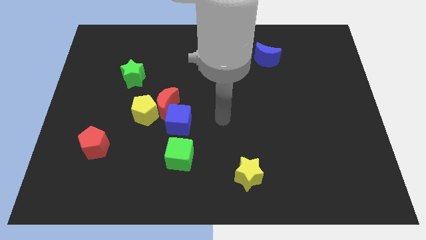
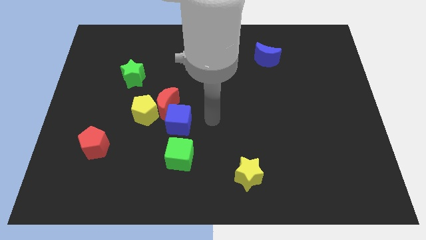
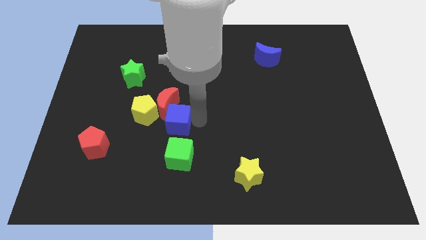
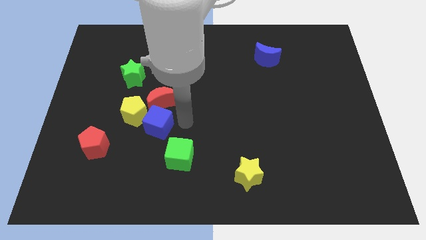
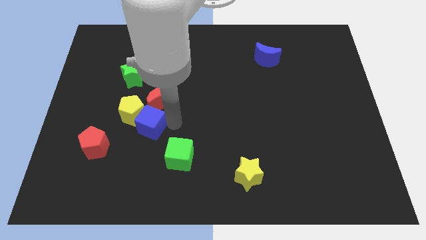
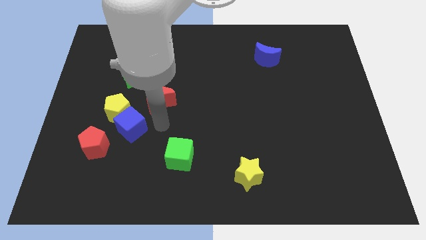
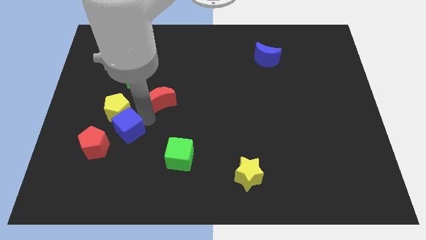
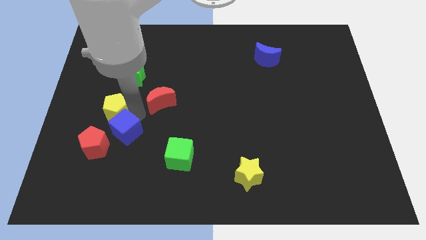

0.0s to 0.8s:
move the red moon away from the yellow pentagon and blue cube

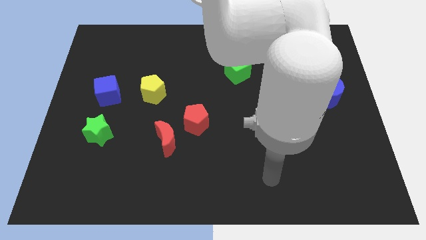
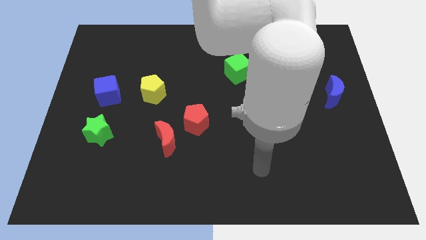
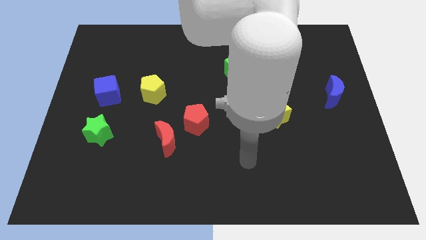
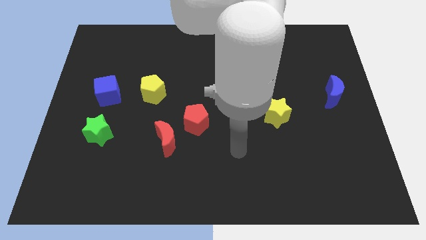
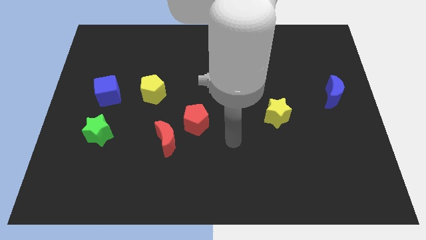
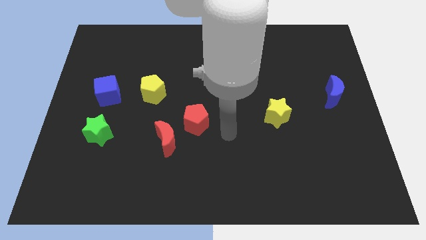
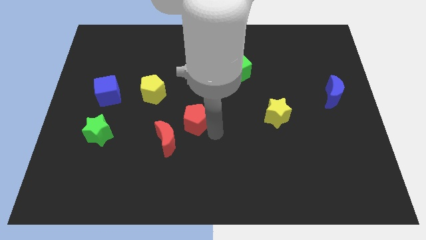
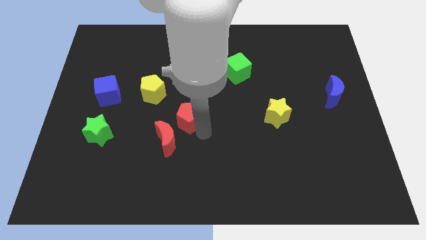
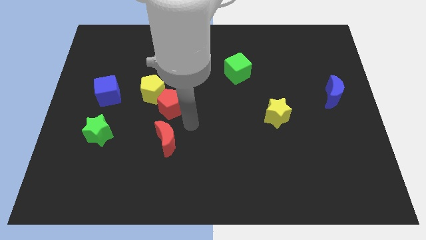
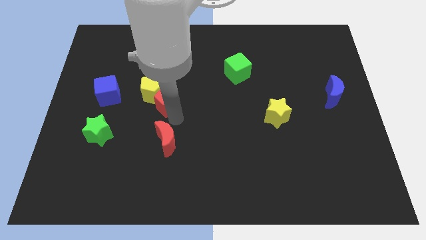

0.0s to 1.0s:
move the red moon away from the red pentagon

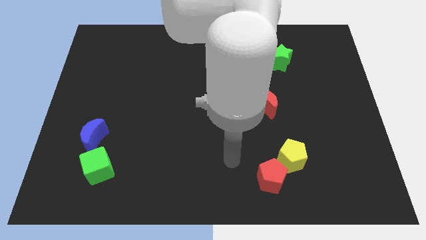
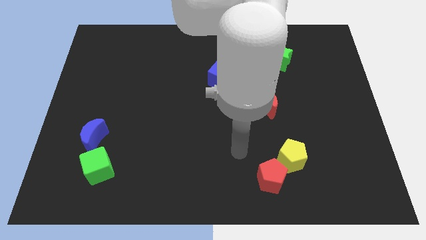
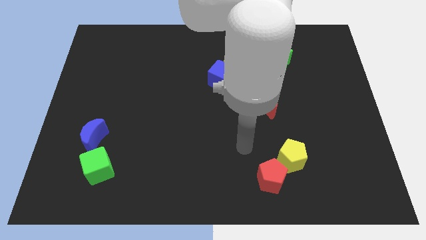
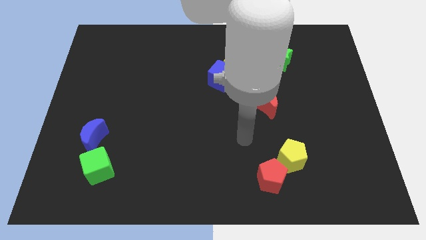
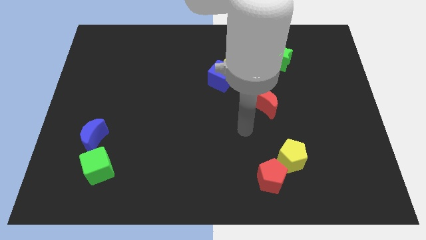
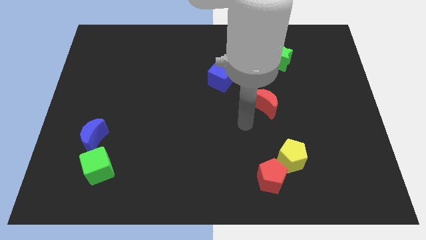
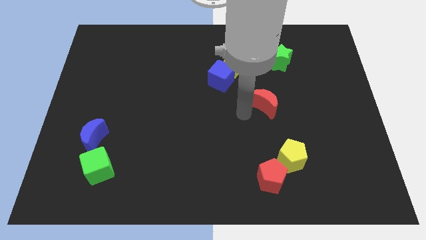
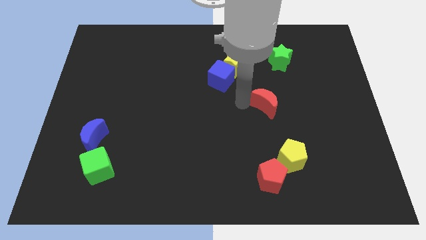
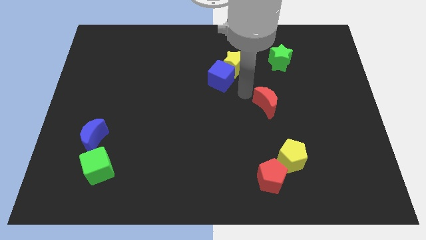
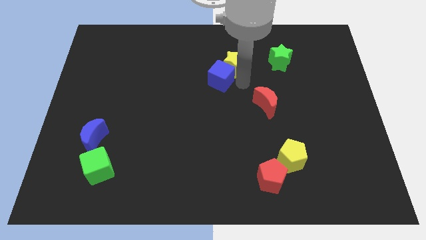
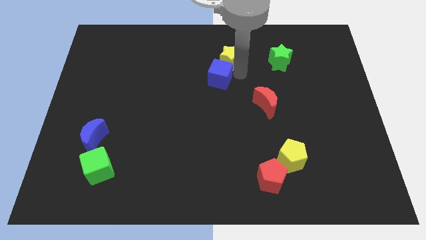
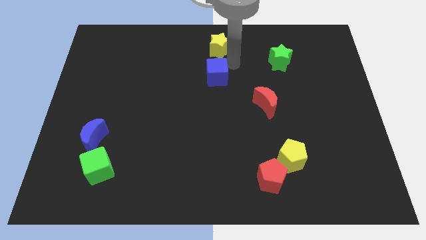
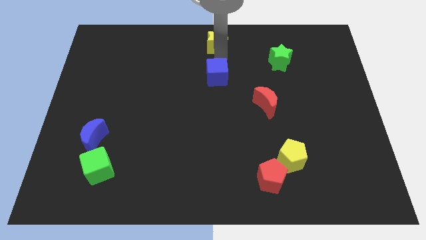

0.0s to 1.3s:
move the blue cube away from the yellow star

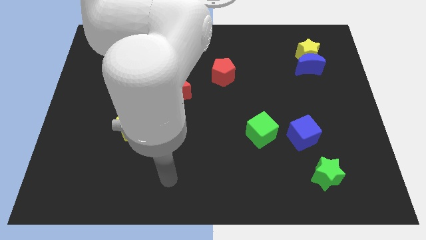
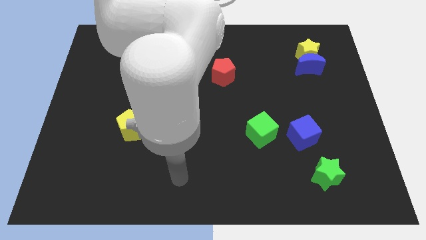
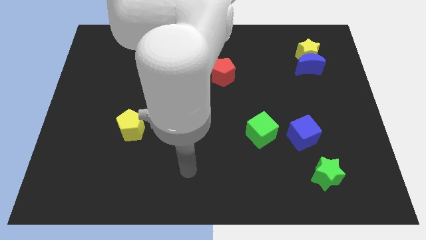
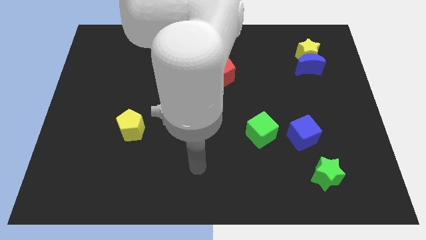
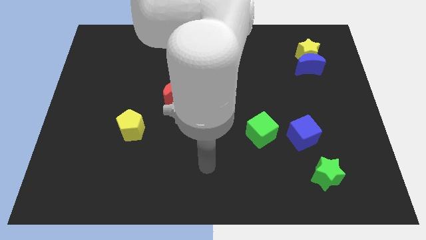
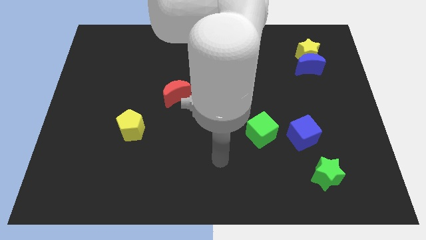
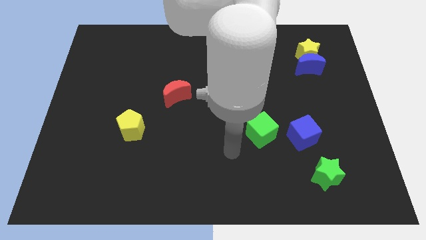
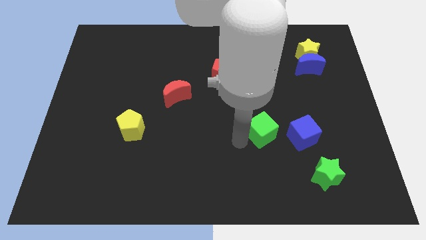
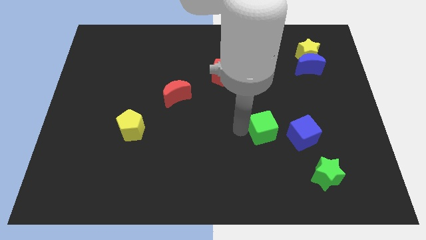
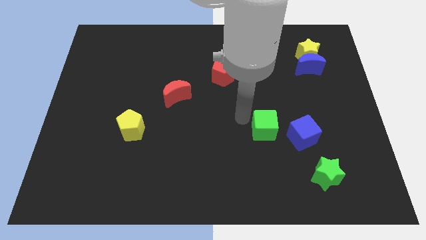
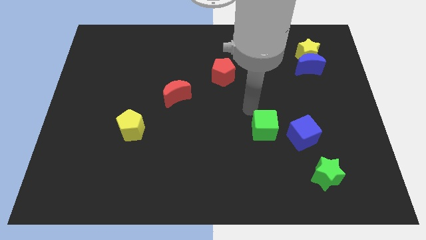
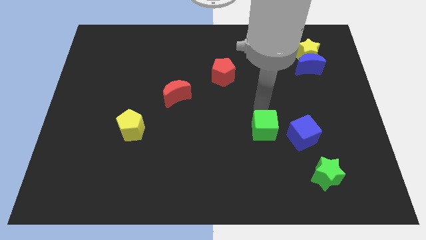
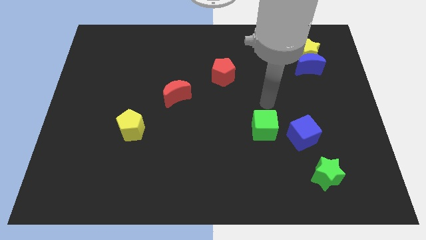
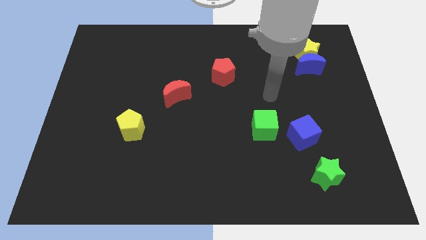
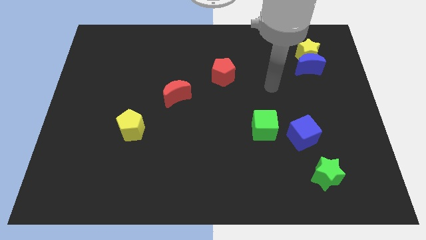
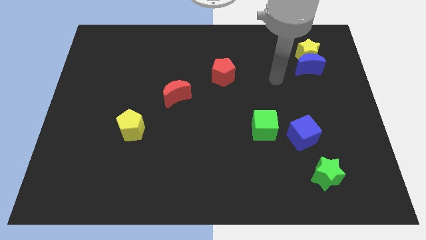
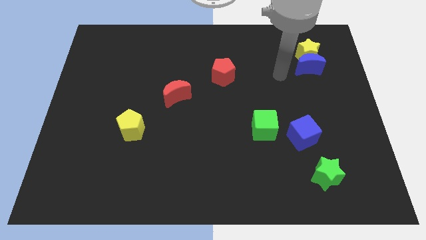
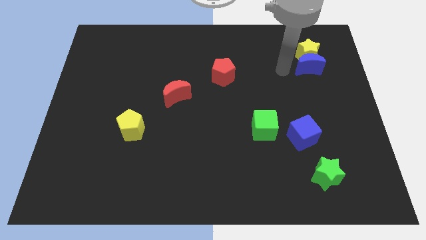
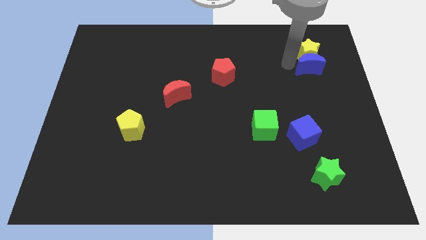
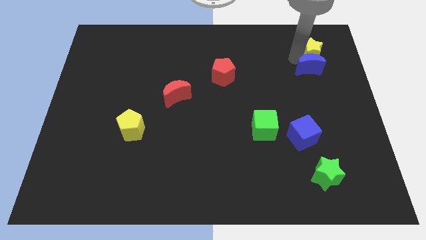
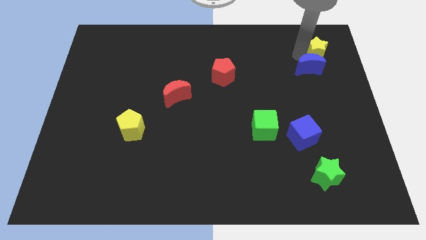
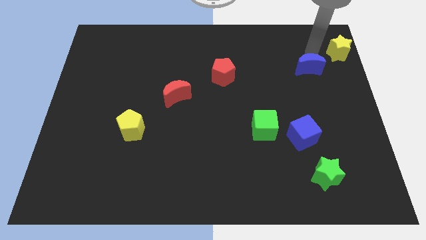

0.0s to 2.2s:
move the blue moon away from the yellow star

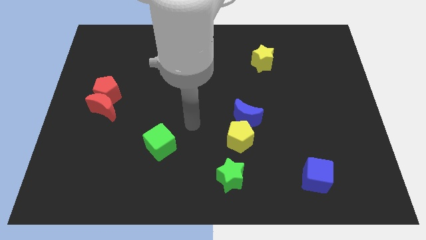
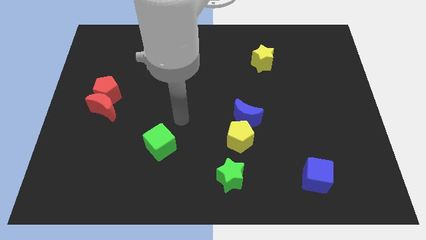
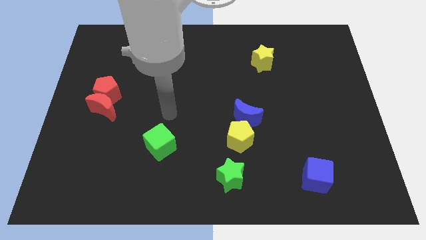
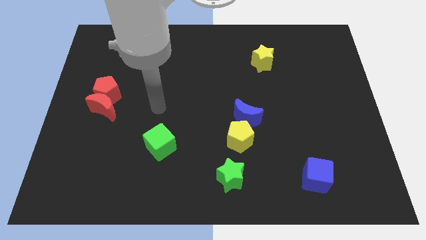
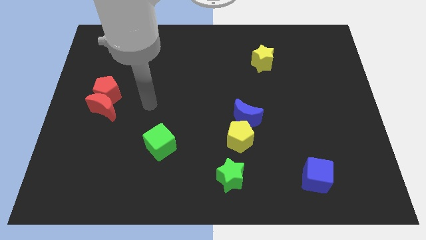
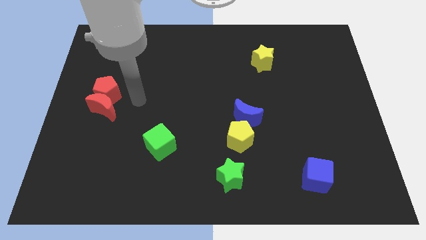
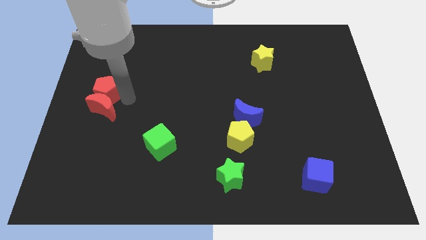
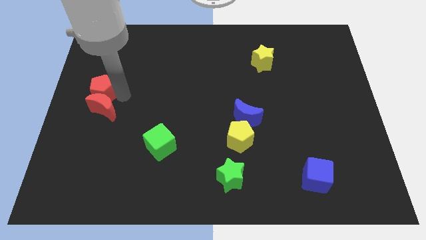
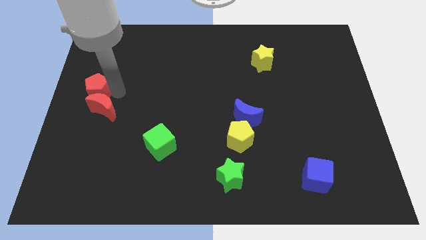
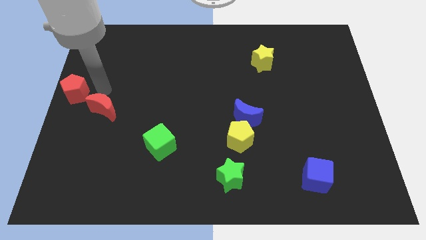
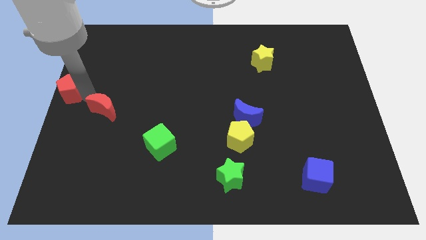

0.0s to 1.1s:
separate the red moon from the red pentagon

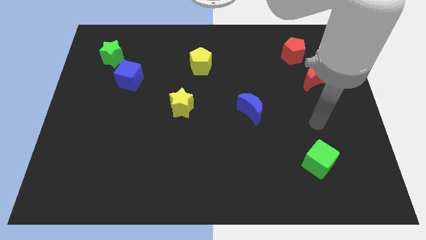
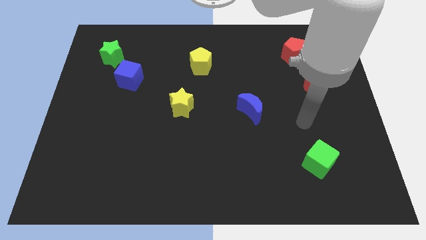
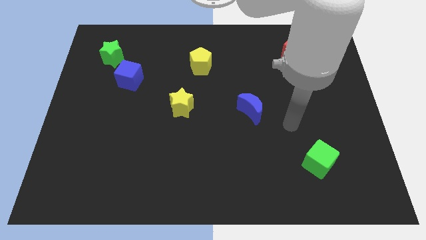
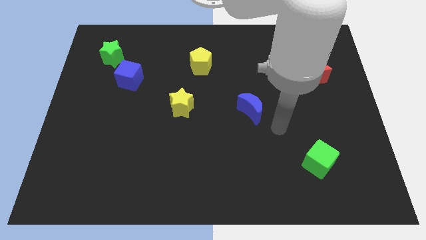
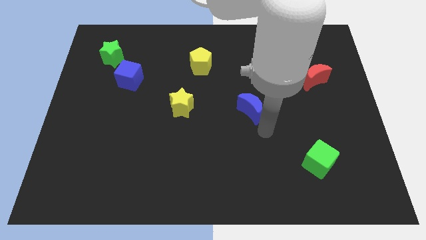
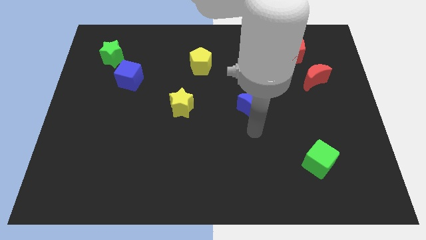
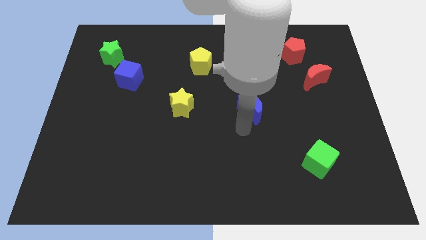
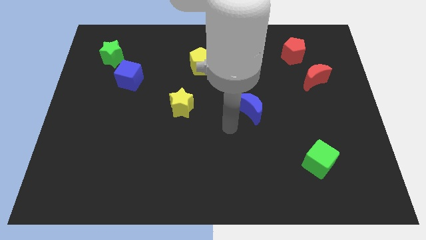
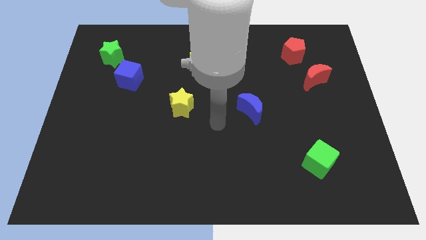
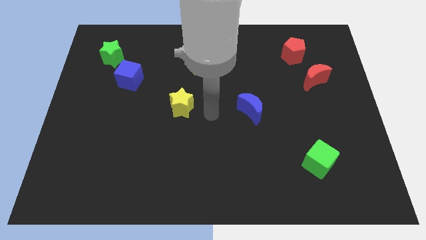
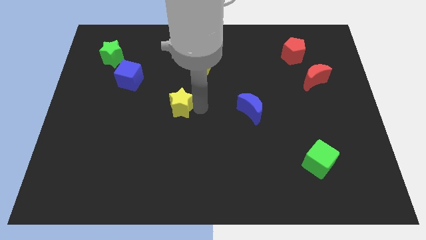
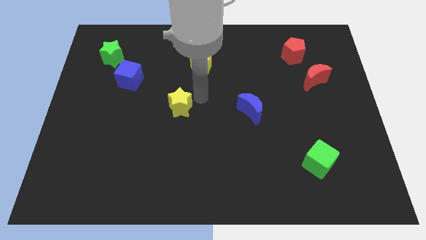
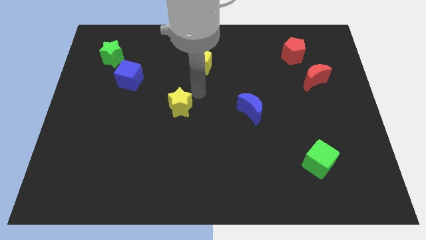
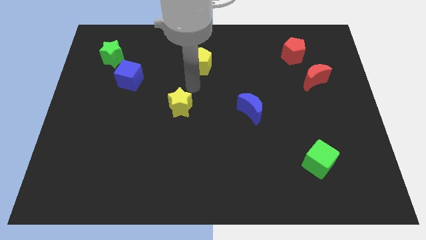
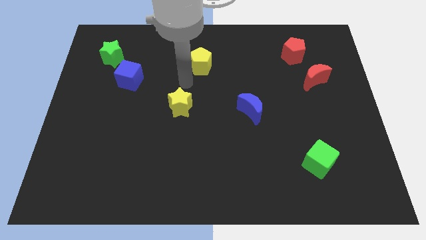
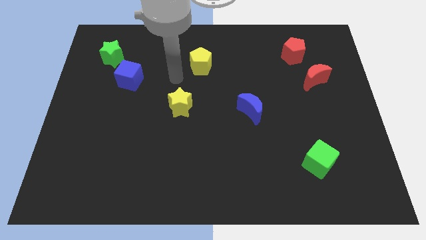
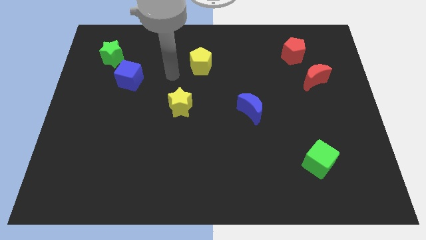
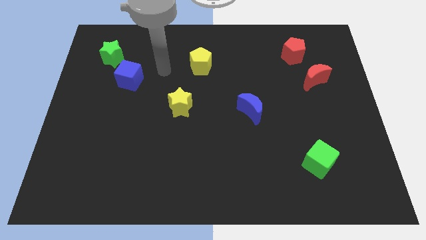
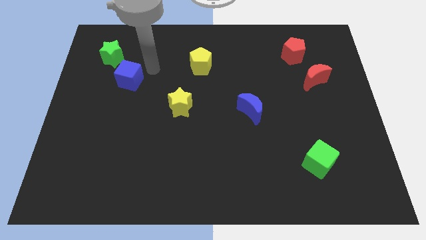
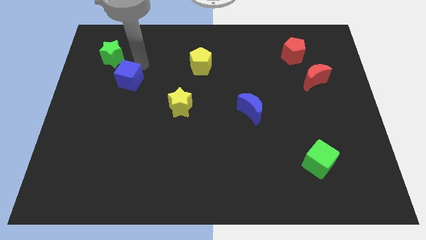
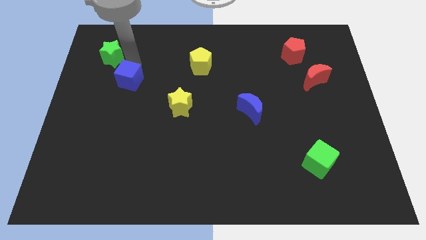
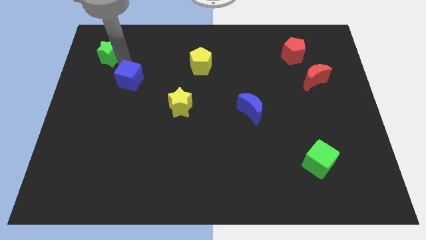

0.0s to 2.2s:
pull the blue cube apart from the green star

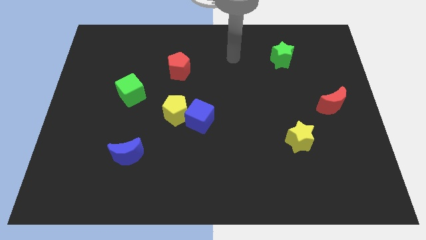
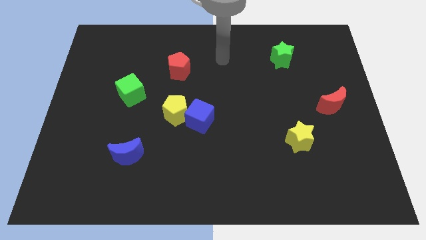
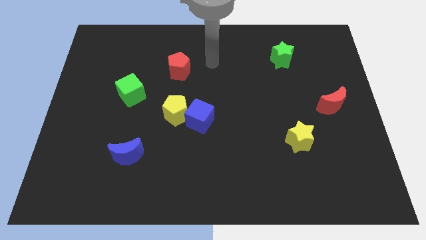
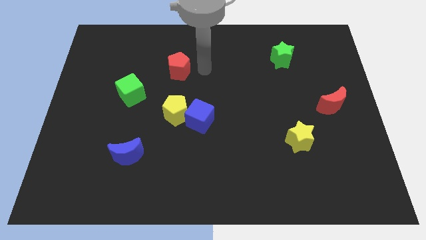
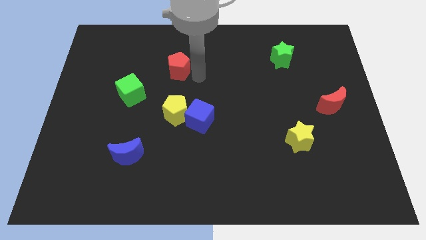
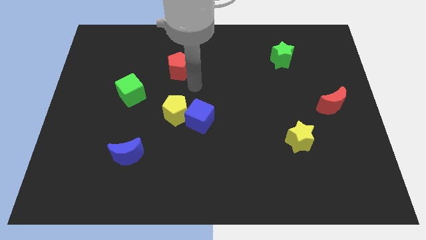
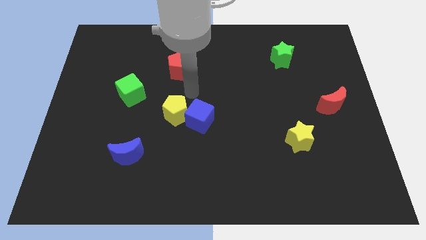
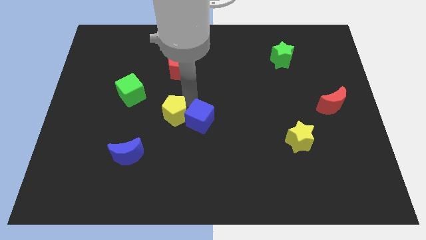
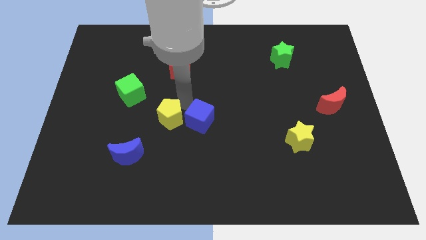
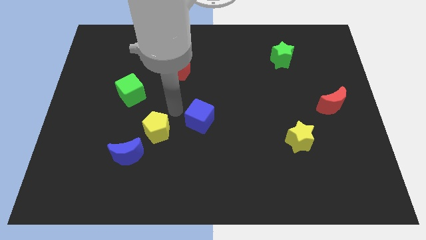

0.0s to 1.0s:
pull the blue cube apart from the yellow pentagon
